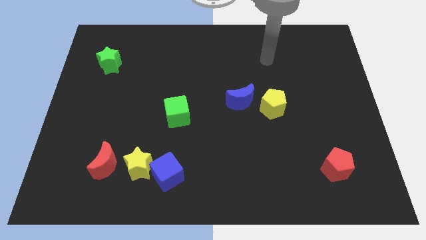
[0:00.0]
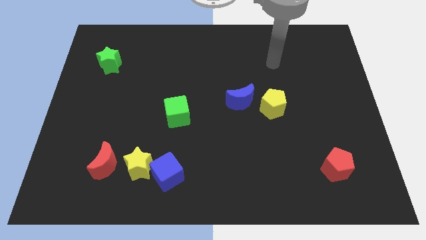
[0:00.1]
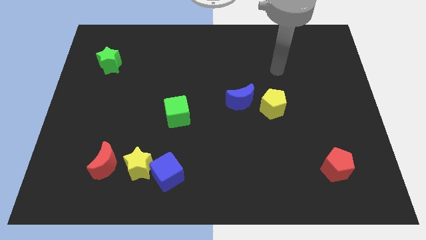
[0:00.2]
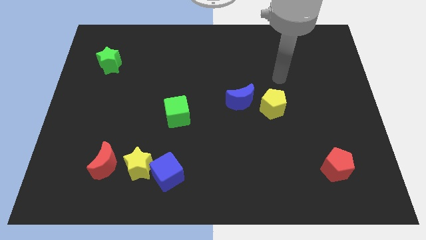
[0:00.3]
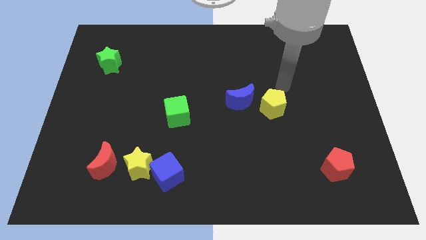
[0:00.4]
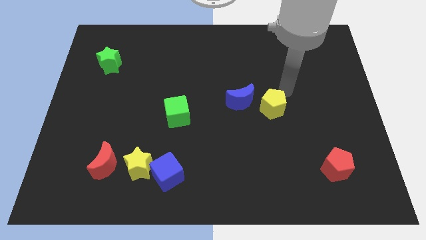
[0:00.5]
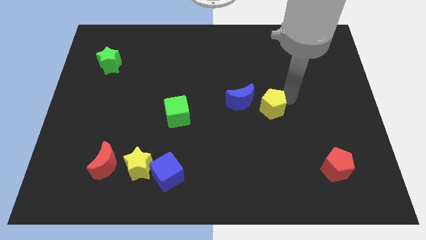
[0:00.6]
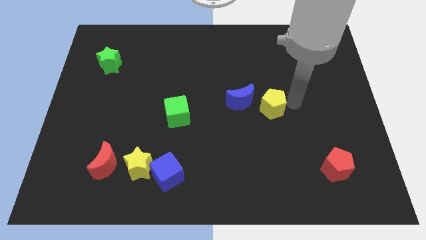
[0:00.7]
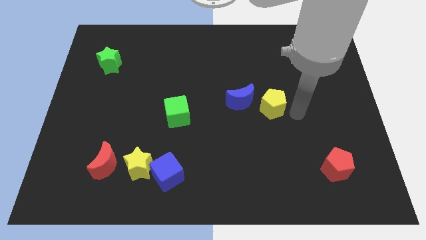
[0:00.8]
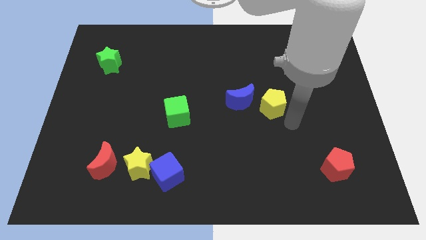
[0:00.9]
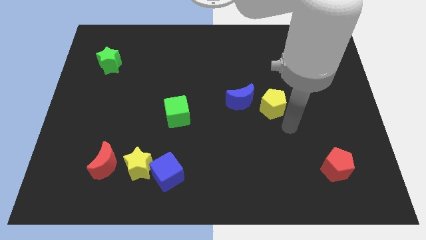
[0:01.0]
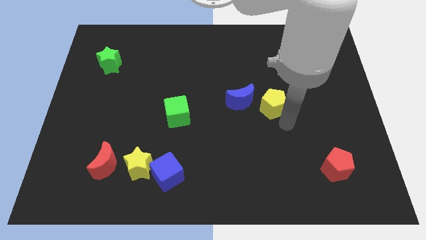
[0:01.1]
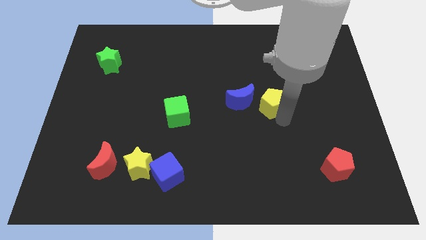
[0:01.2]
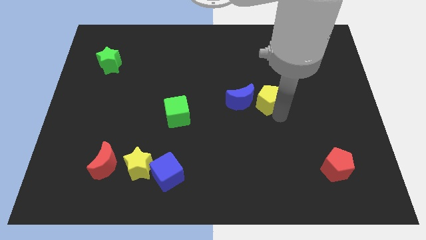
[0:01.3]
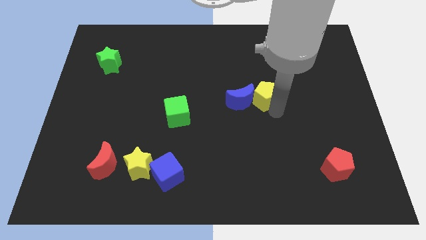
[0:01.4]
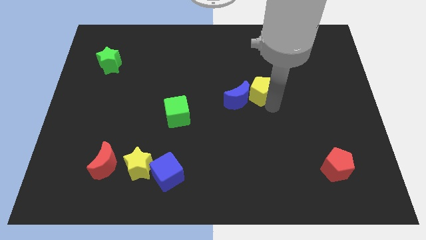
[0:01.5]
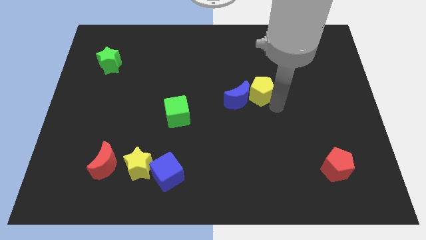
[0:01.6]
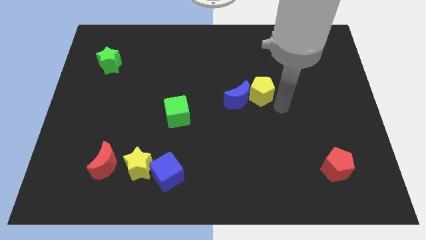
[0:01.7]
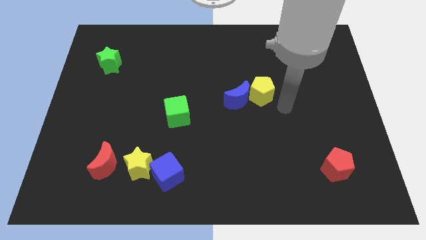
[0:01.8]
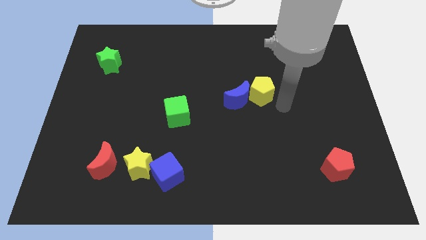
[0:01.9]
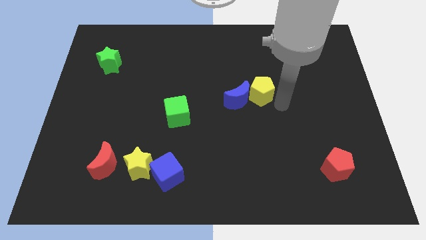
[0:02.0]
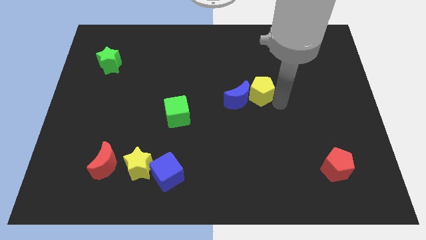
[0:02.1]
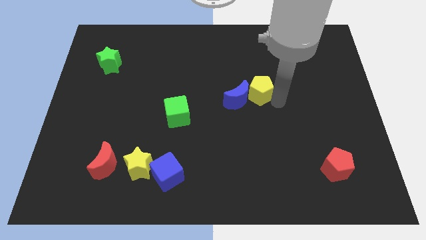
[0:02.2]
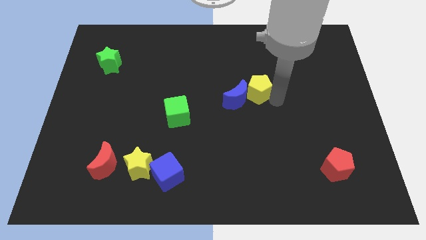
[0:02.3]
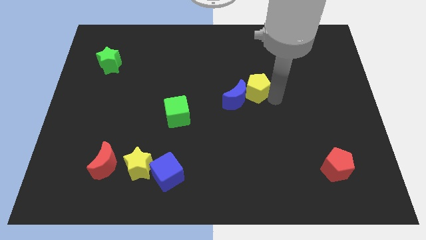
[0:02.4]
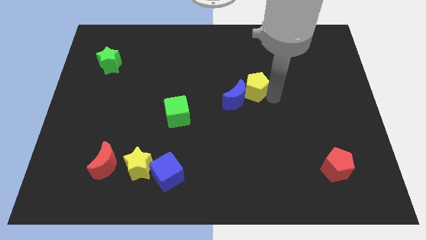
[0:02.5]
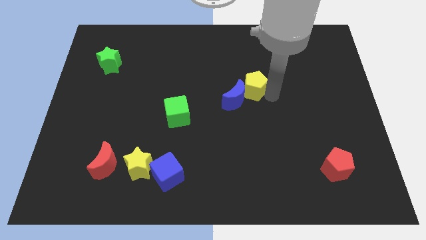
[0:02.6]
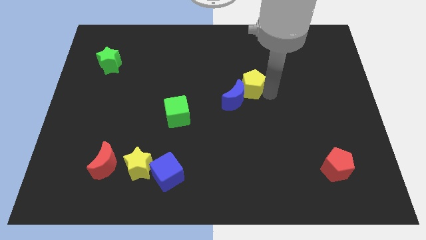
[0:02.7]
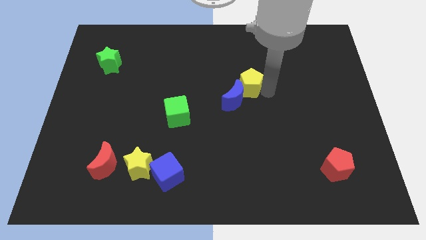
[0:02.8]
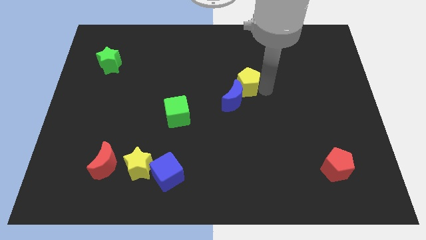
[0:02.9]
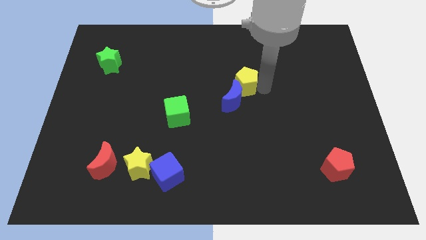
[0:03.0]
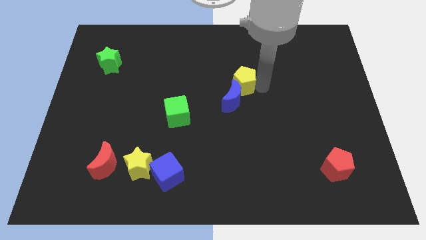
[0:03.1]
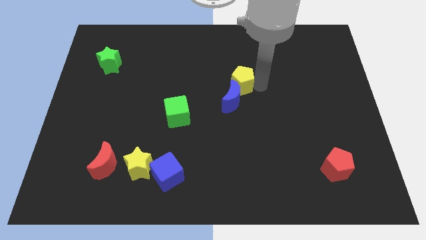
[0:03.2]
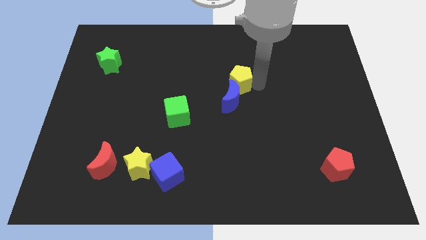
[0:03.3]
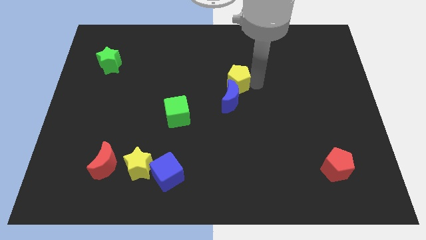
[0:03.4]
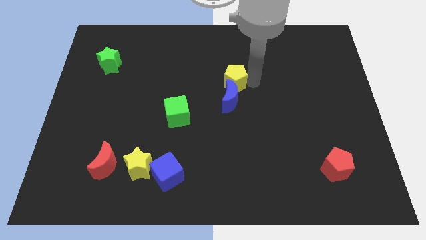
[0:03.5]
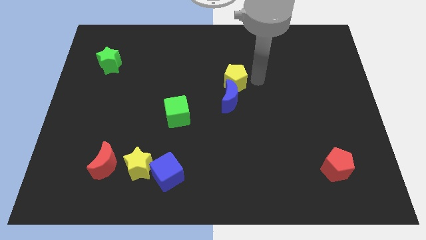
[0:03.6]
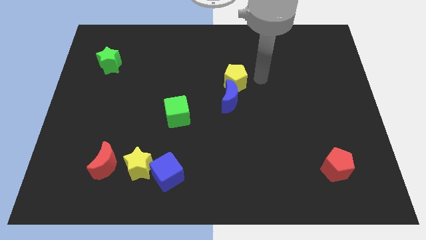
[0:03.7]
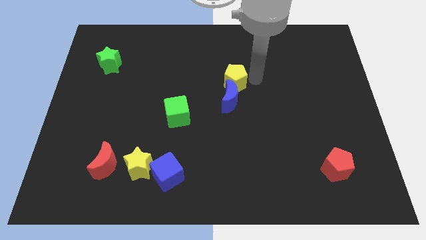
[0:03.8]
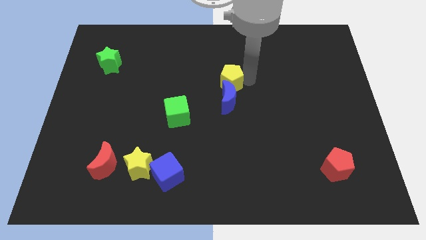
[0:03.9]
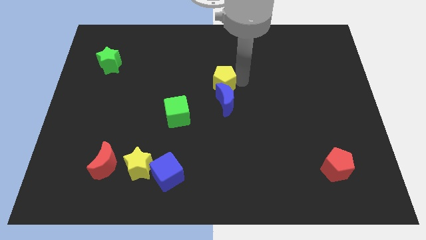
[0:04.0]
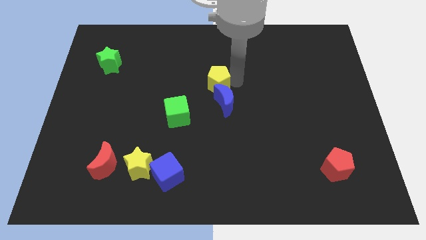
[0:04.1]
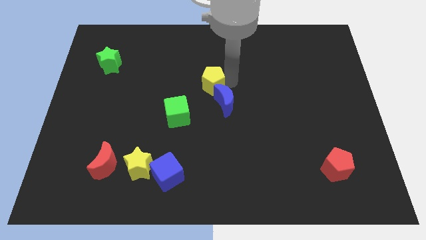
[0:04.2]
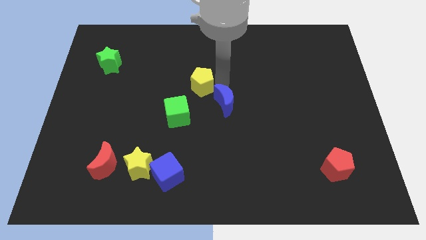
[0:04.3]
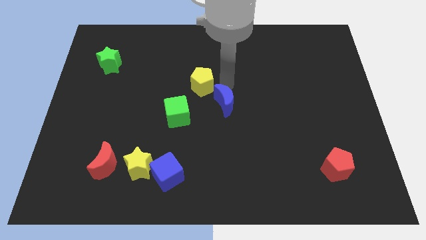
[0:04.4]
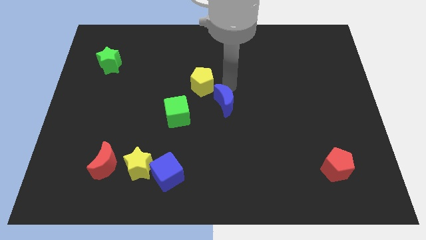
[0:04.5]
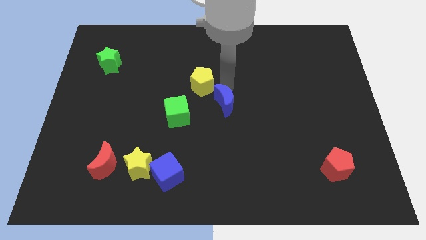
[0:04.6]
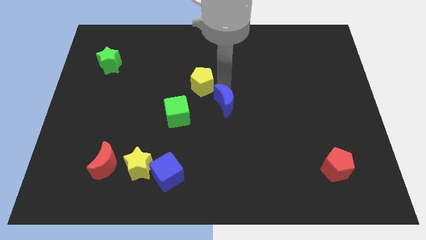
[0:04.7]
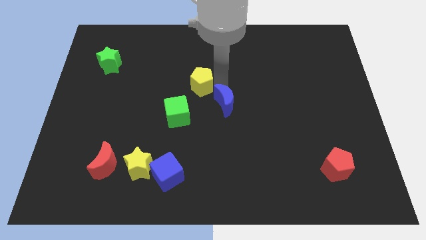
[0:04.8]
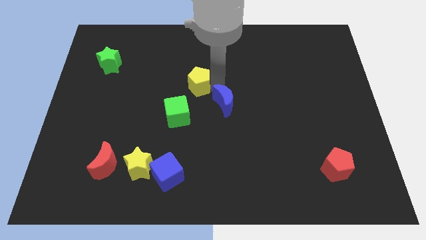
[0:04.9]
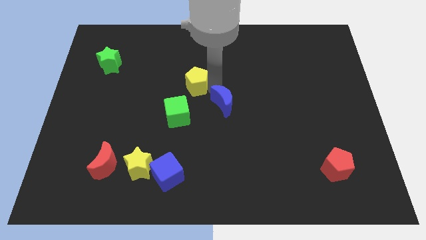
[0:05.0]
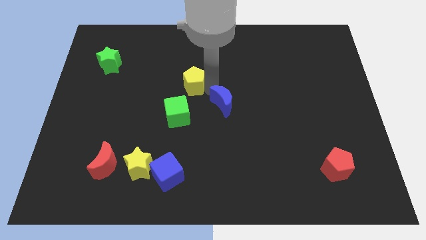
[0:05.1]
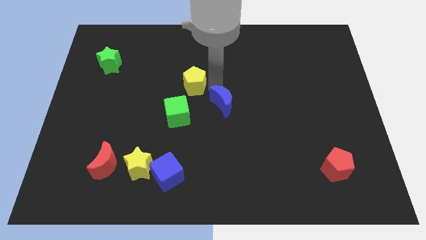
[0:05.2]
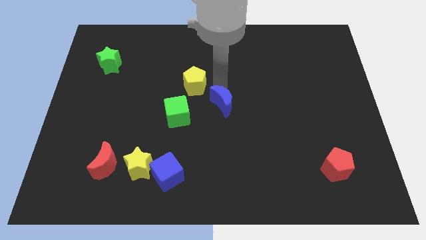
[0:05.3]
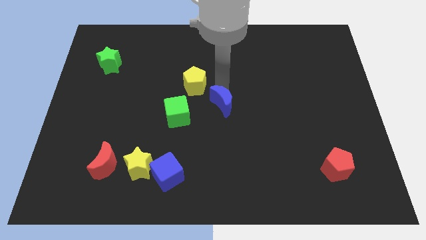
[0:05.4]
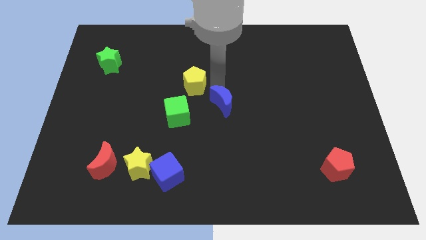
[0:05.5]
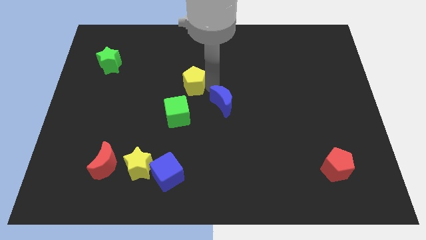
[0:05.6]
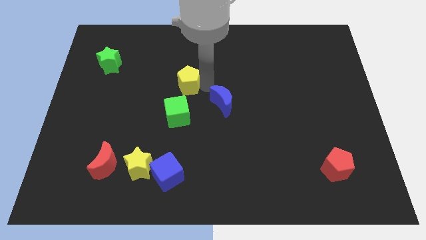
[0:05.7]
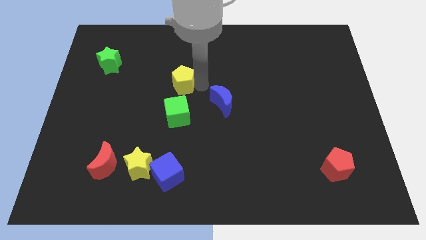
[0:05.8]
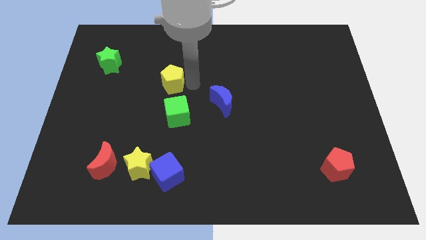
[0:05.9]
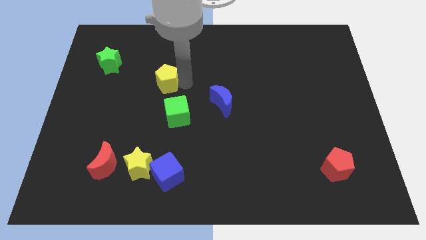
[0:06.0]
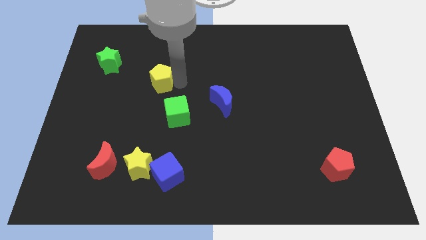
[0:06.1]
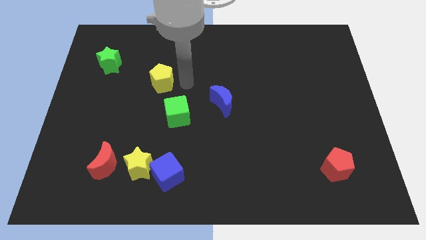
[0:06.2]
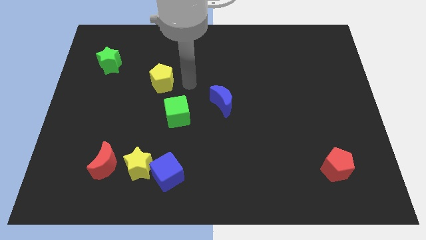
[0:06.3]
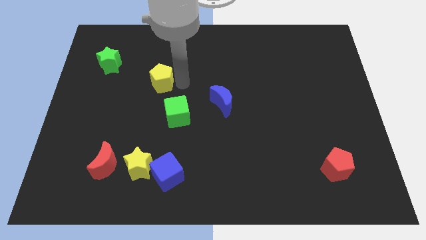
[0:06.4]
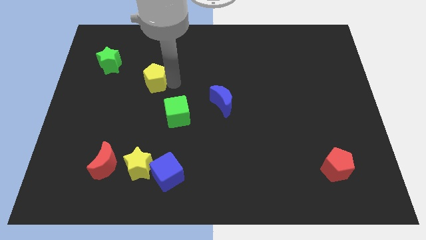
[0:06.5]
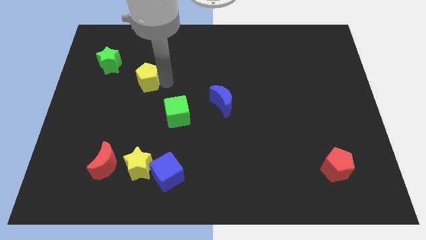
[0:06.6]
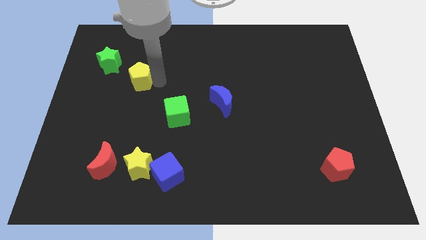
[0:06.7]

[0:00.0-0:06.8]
put the yellow pentagon to the bottom right side of the green star
